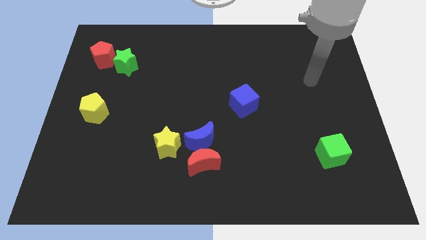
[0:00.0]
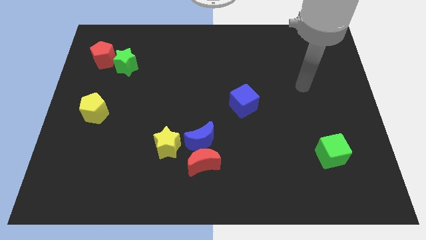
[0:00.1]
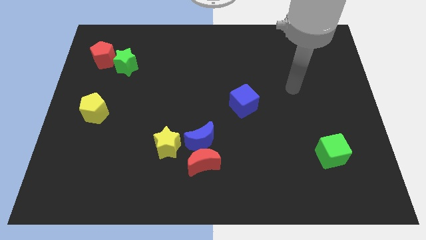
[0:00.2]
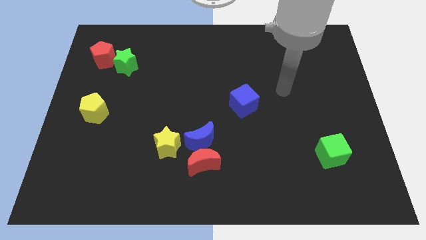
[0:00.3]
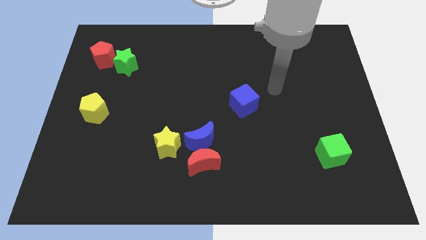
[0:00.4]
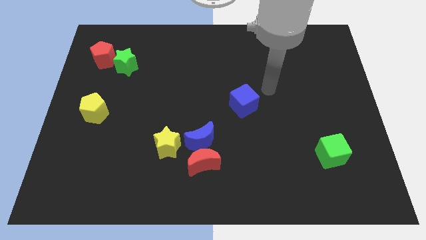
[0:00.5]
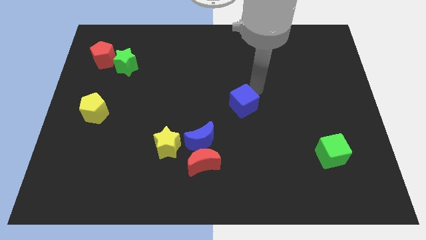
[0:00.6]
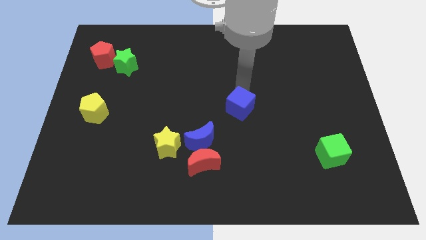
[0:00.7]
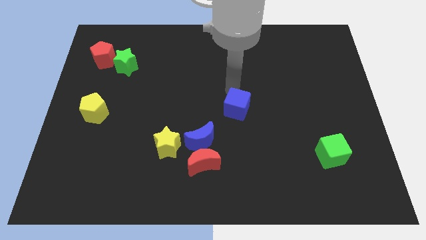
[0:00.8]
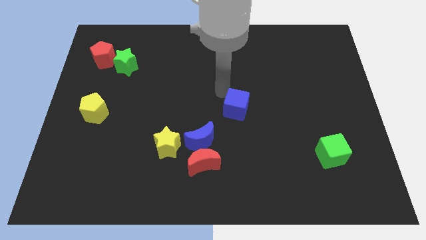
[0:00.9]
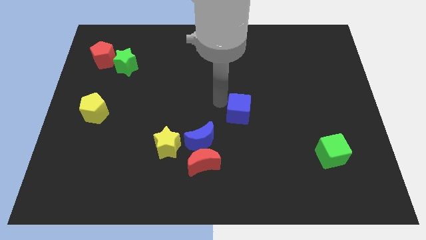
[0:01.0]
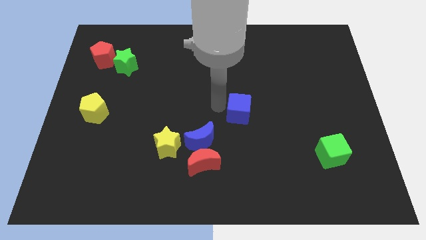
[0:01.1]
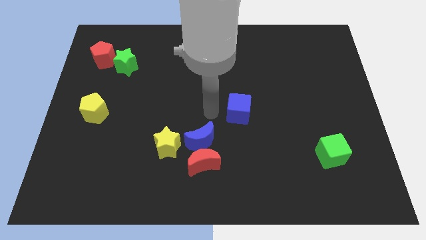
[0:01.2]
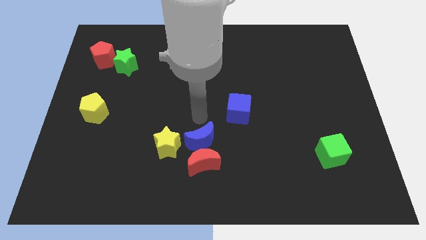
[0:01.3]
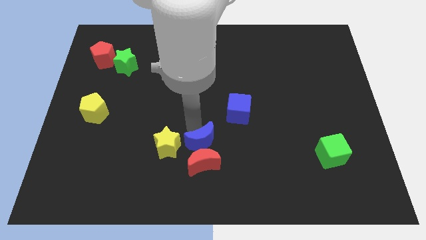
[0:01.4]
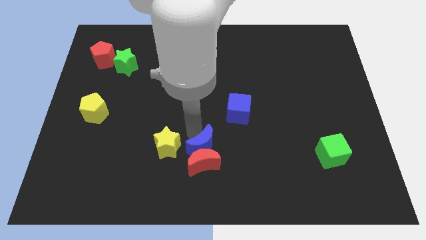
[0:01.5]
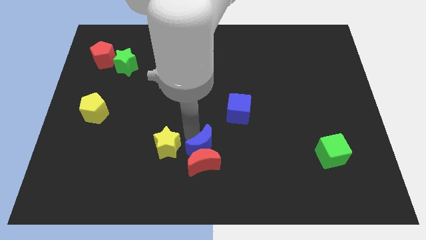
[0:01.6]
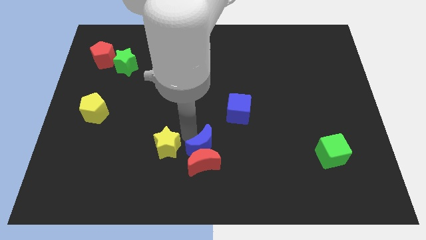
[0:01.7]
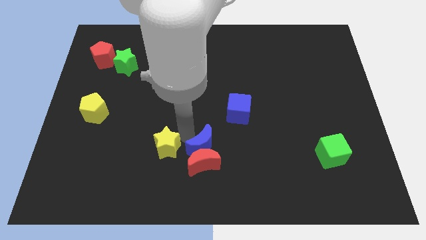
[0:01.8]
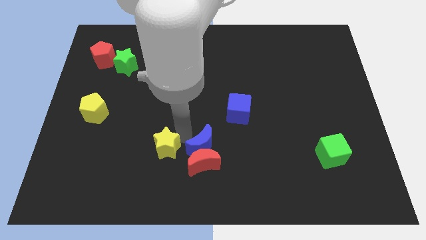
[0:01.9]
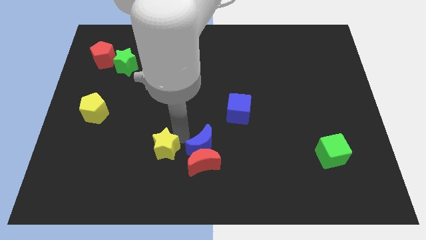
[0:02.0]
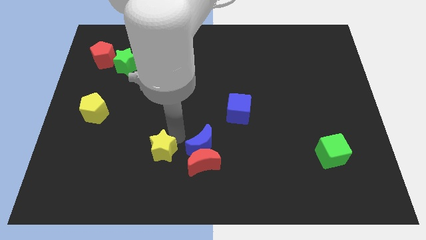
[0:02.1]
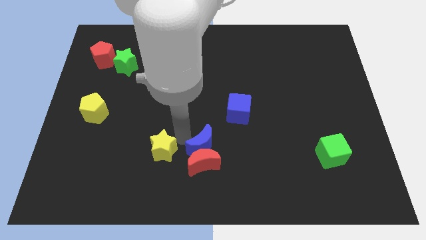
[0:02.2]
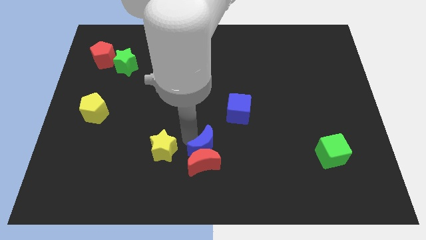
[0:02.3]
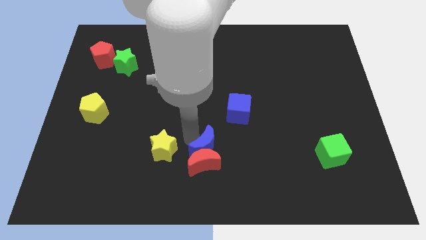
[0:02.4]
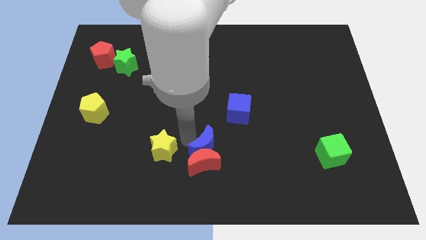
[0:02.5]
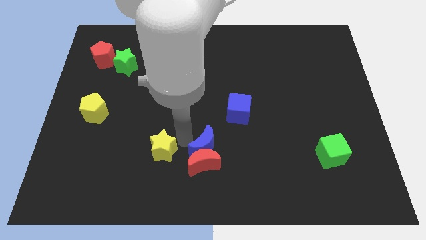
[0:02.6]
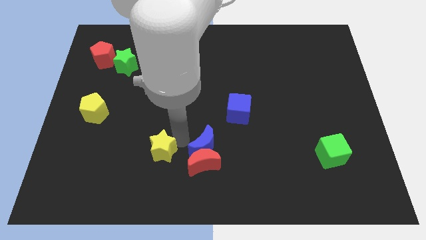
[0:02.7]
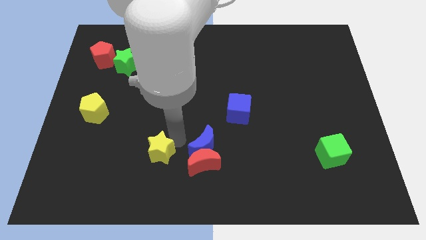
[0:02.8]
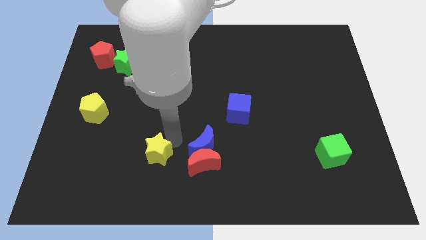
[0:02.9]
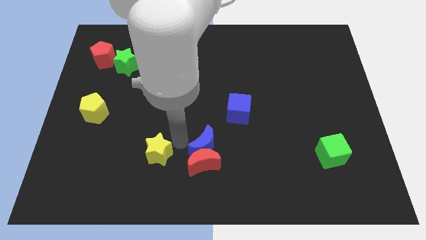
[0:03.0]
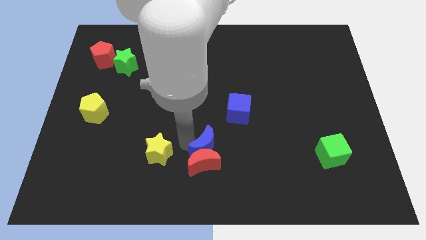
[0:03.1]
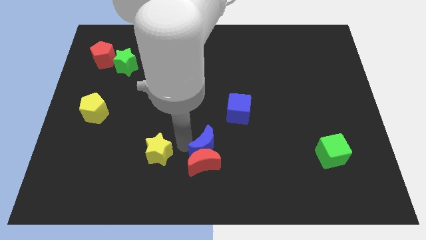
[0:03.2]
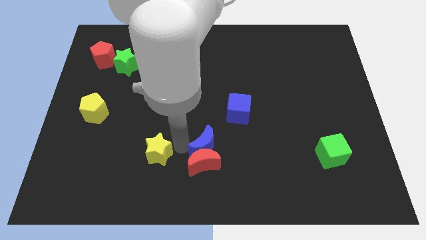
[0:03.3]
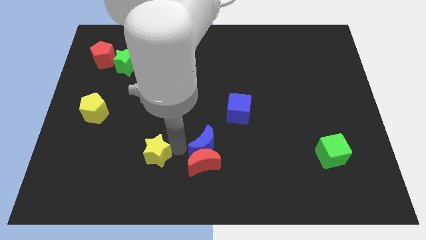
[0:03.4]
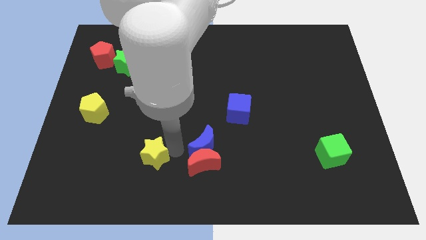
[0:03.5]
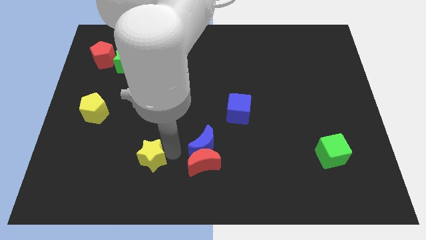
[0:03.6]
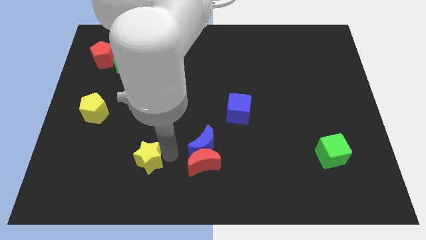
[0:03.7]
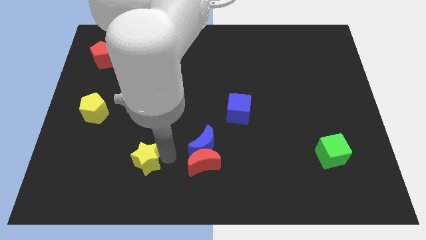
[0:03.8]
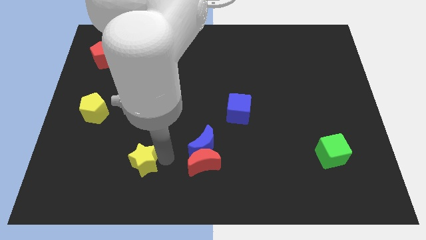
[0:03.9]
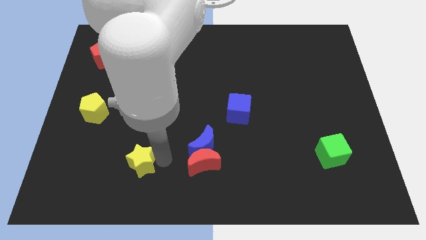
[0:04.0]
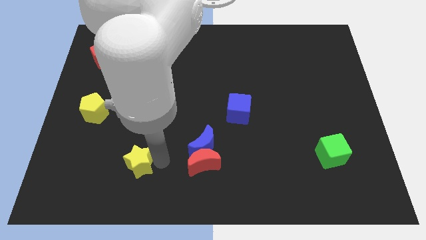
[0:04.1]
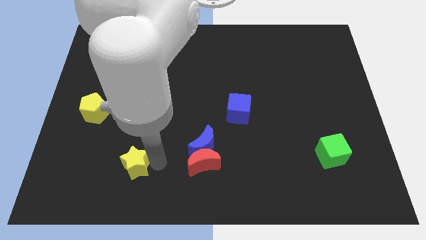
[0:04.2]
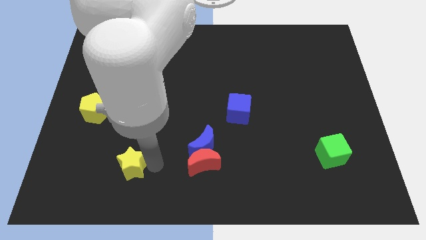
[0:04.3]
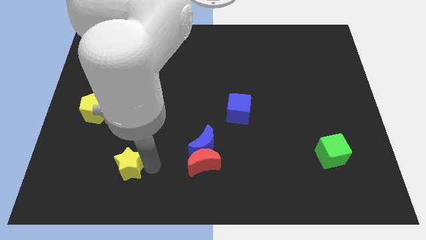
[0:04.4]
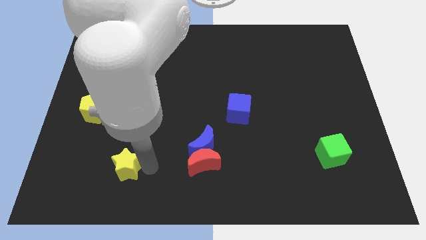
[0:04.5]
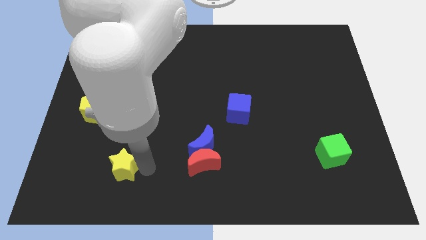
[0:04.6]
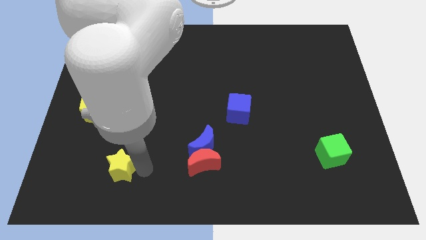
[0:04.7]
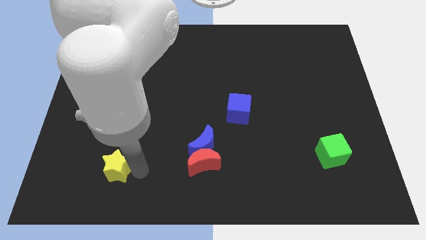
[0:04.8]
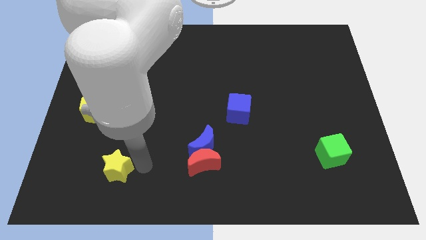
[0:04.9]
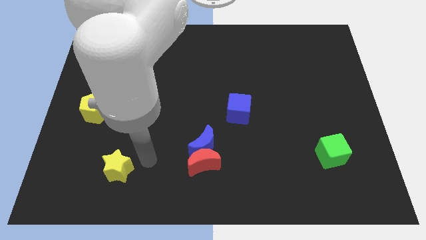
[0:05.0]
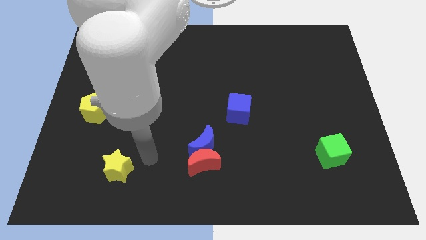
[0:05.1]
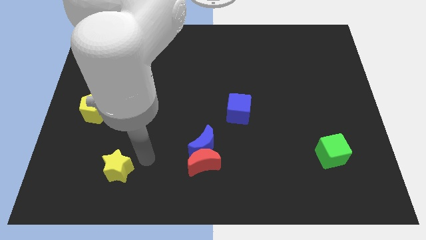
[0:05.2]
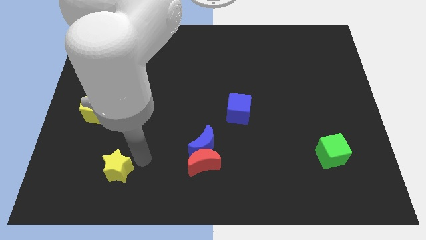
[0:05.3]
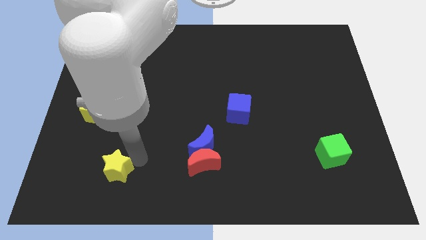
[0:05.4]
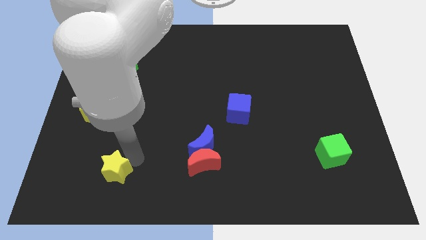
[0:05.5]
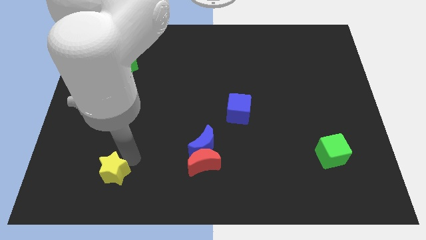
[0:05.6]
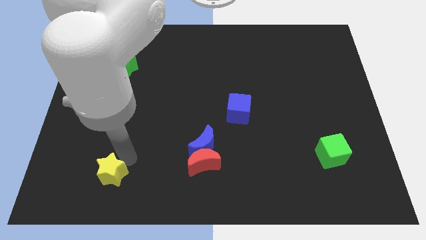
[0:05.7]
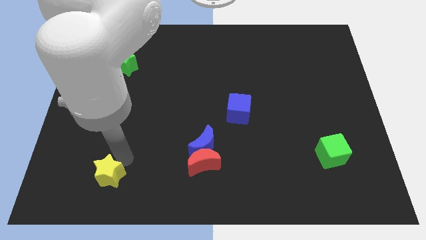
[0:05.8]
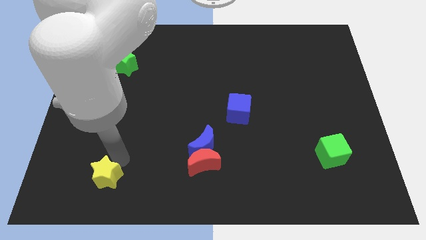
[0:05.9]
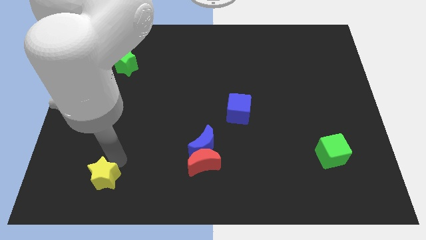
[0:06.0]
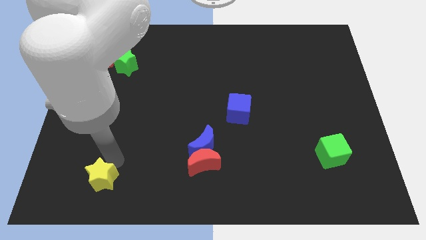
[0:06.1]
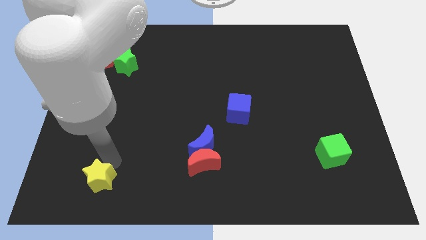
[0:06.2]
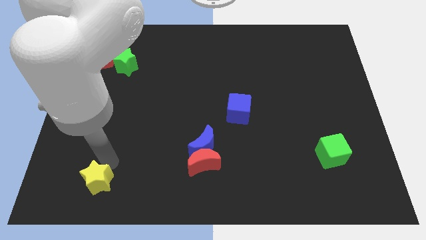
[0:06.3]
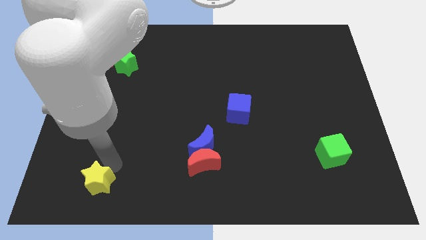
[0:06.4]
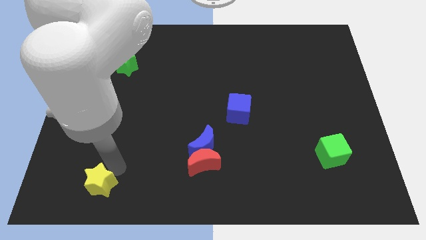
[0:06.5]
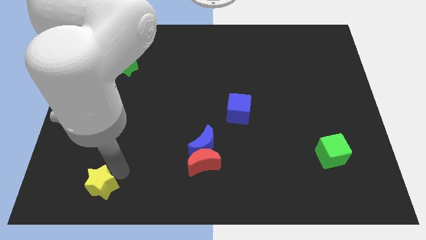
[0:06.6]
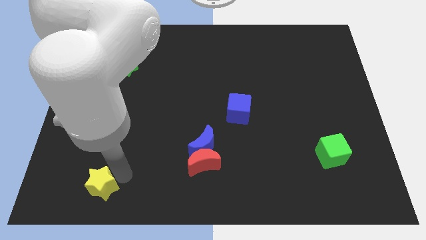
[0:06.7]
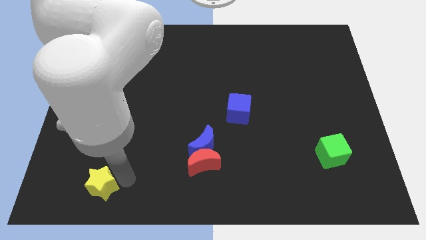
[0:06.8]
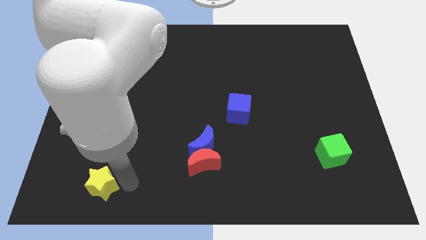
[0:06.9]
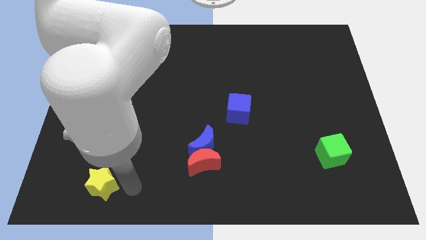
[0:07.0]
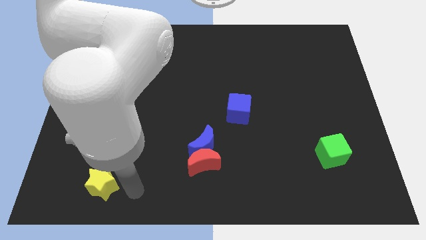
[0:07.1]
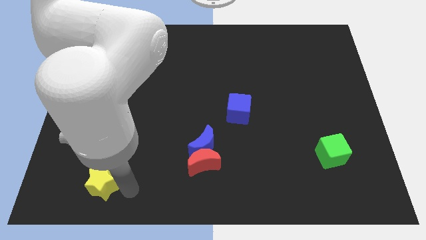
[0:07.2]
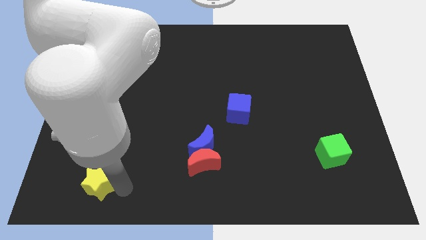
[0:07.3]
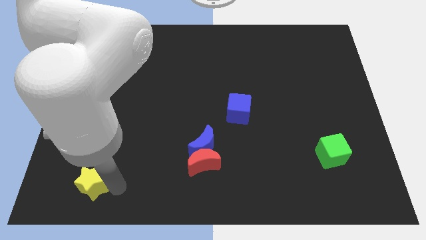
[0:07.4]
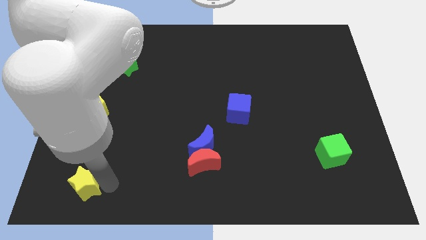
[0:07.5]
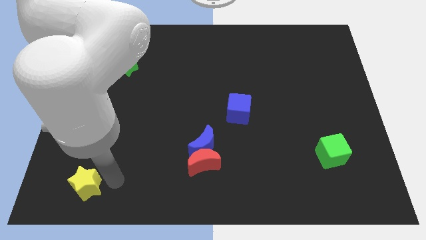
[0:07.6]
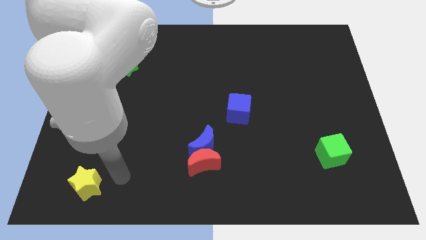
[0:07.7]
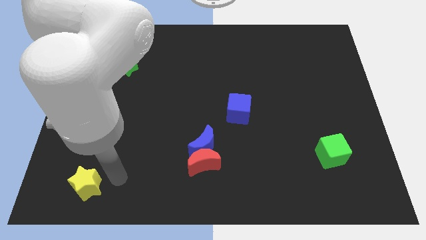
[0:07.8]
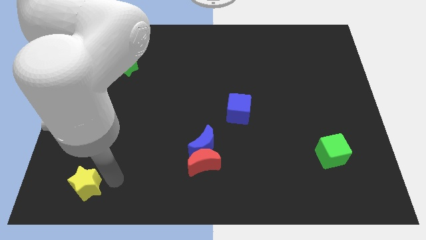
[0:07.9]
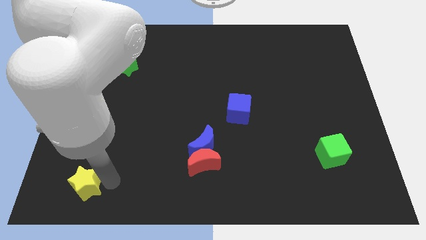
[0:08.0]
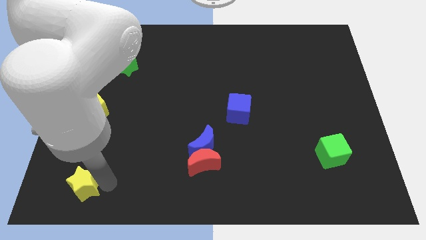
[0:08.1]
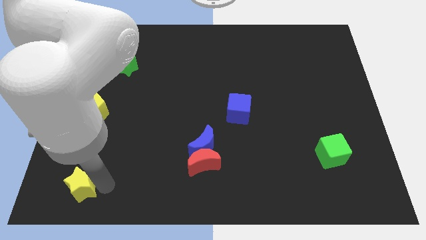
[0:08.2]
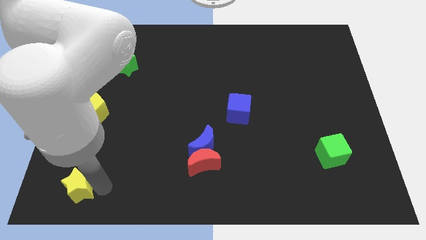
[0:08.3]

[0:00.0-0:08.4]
slide the yellow star to the bottom left
